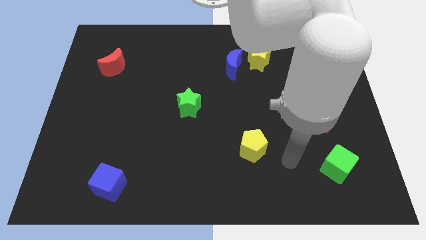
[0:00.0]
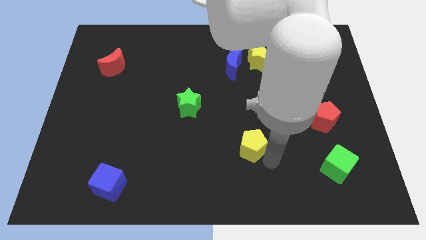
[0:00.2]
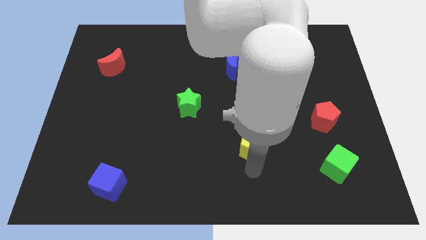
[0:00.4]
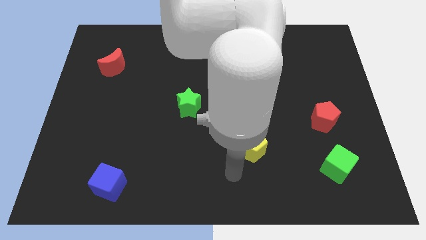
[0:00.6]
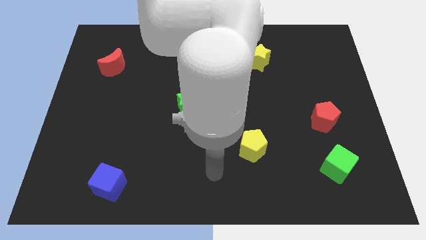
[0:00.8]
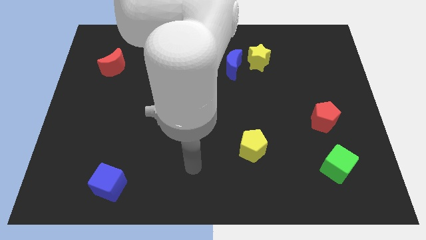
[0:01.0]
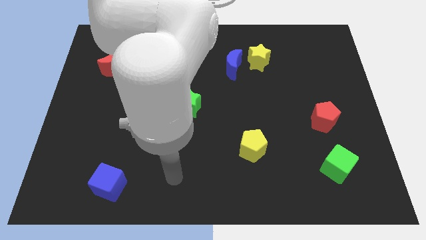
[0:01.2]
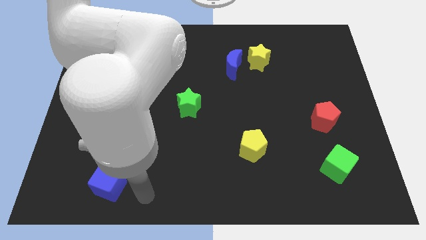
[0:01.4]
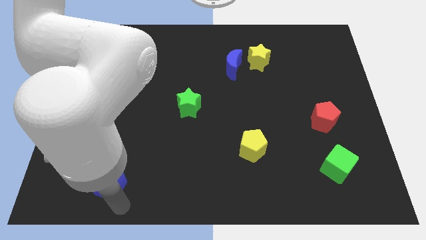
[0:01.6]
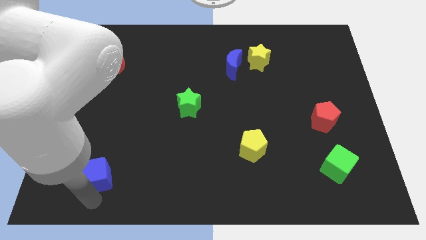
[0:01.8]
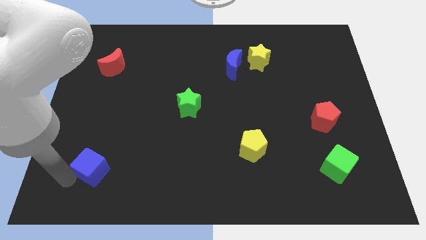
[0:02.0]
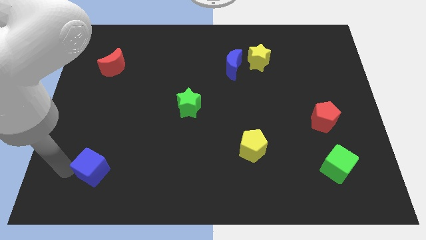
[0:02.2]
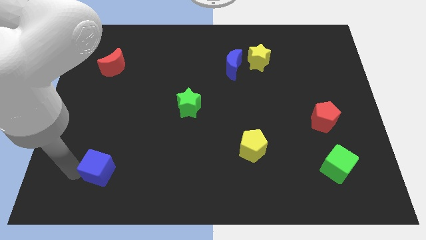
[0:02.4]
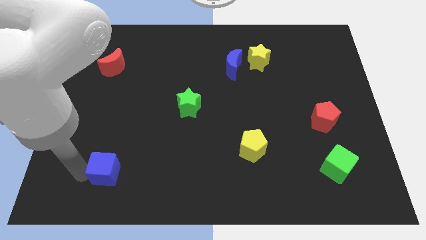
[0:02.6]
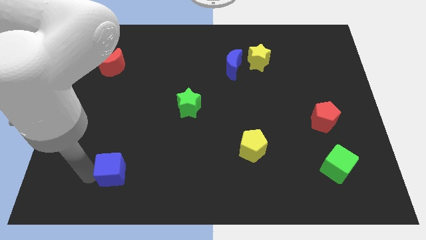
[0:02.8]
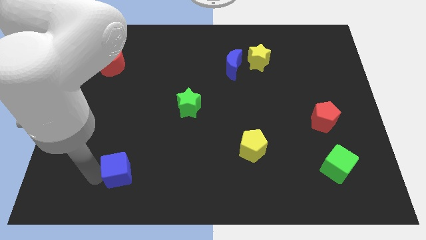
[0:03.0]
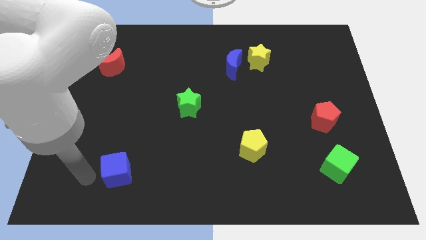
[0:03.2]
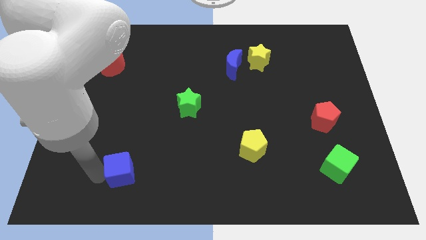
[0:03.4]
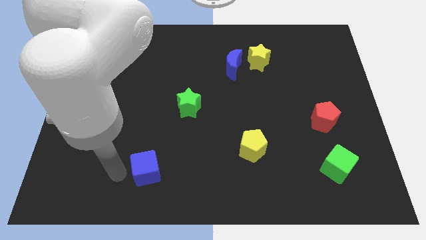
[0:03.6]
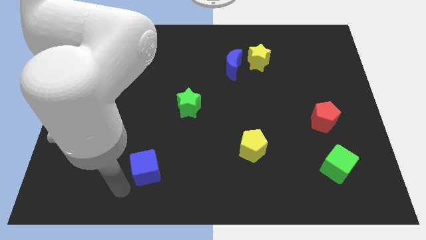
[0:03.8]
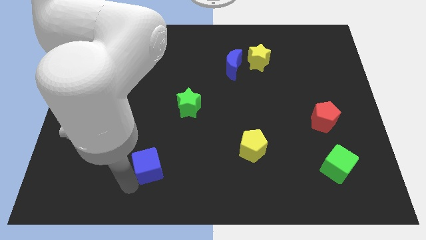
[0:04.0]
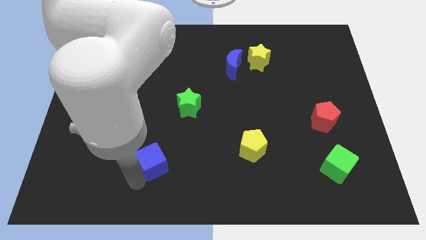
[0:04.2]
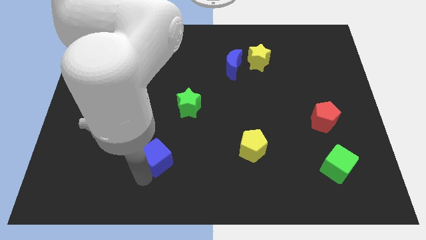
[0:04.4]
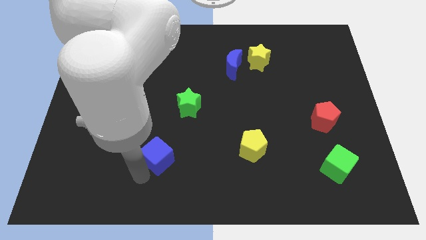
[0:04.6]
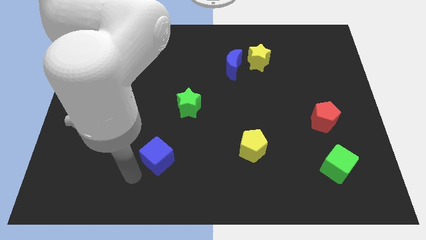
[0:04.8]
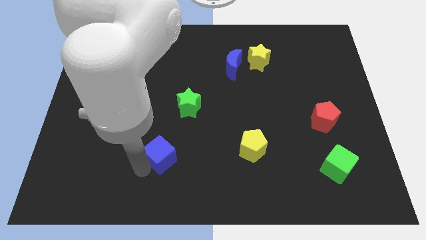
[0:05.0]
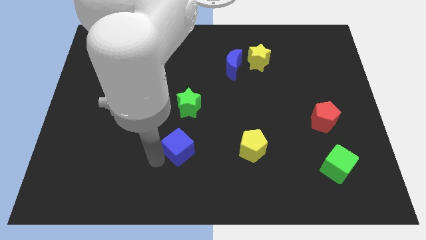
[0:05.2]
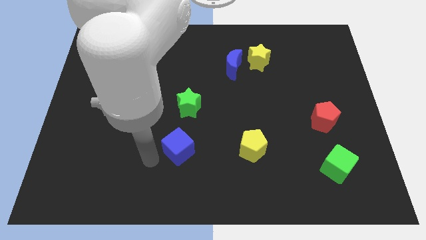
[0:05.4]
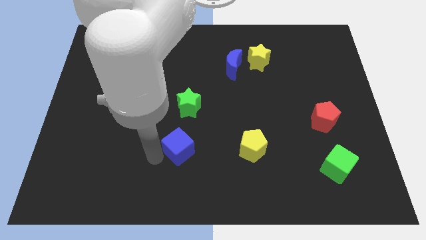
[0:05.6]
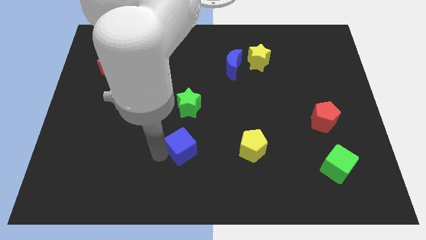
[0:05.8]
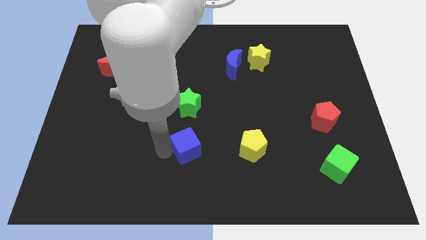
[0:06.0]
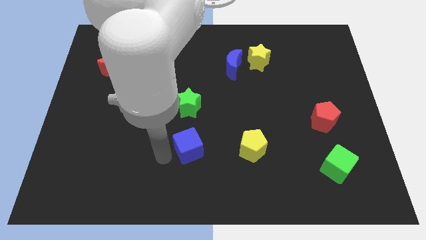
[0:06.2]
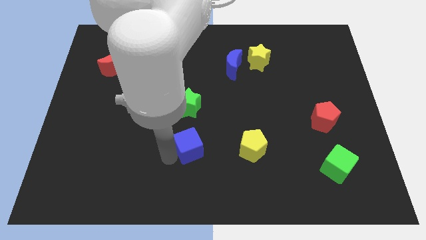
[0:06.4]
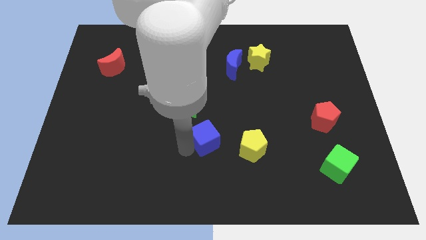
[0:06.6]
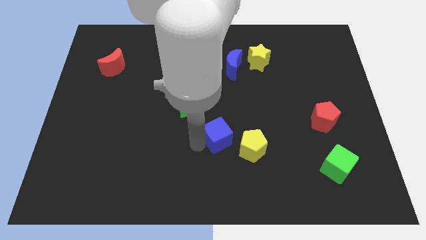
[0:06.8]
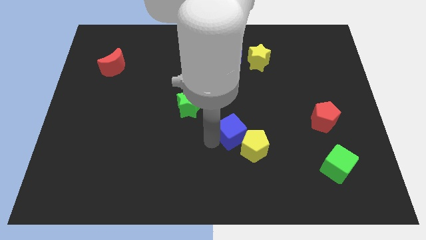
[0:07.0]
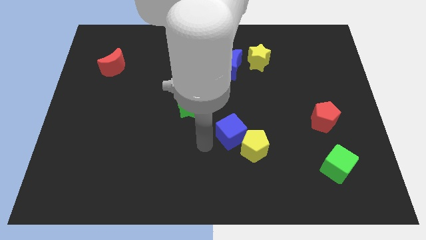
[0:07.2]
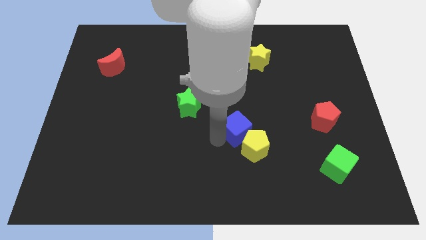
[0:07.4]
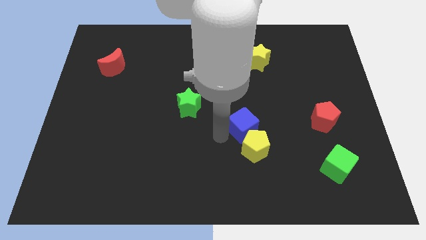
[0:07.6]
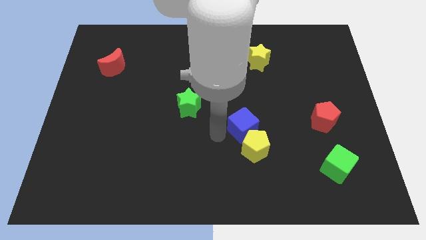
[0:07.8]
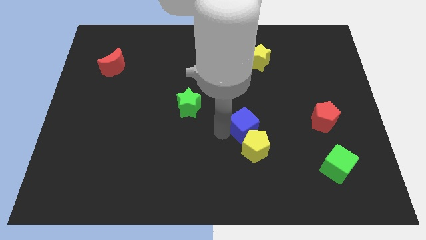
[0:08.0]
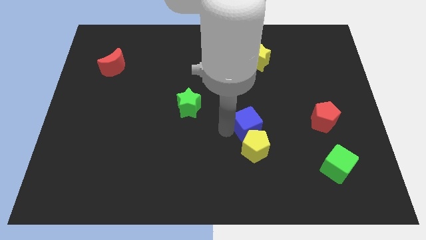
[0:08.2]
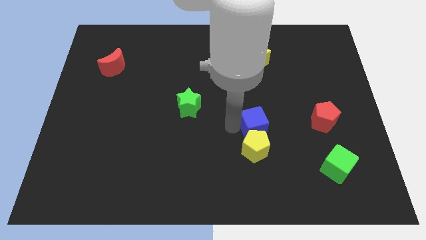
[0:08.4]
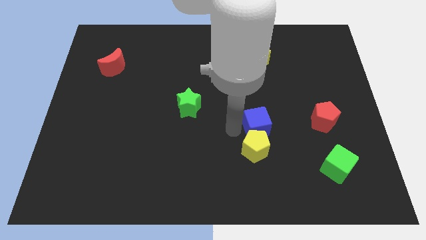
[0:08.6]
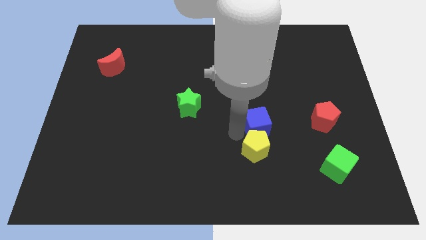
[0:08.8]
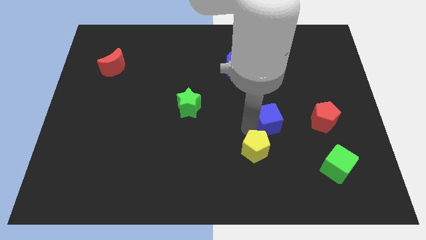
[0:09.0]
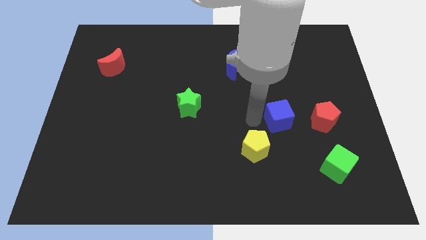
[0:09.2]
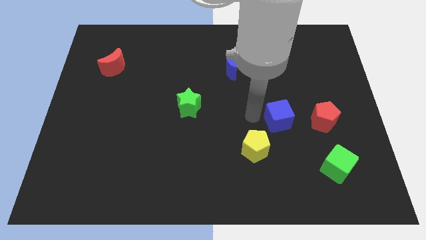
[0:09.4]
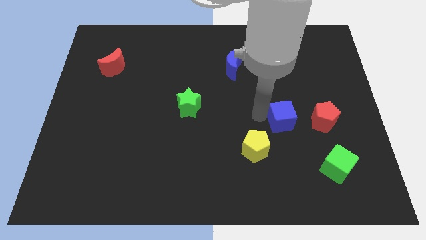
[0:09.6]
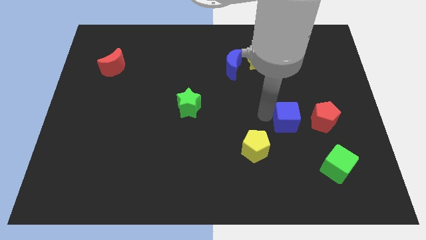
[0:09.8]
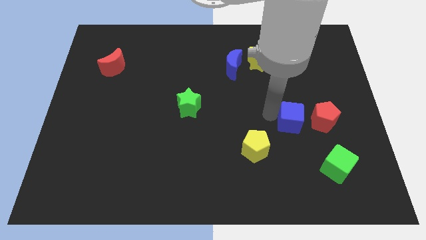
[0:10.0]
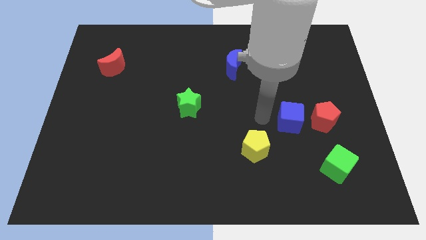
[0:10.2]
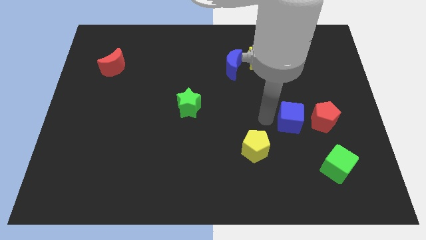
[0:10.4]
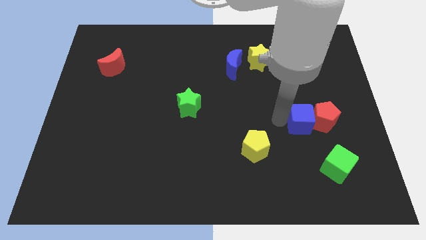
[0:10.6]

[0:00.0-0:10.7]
slide the blue cube towards the red pentagon

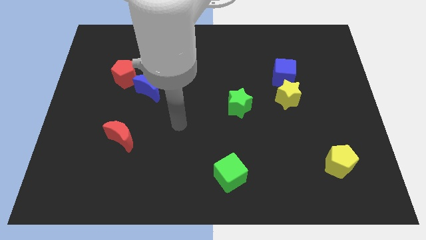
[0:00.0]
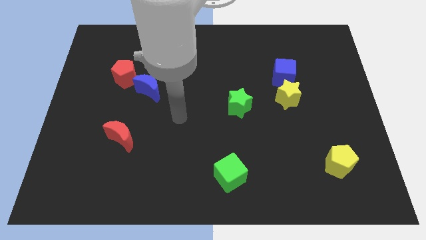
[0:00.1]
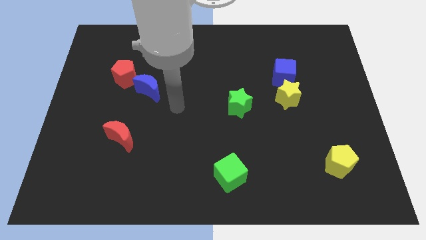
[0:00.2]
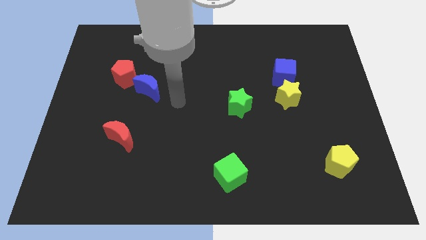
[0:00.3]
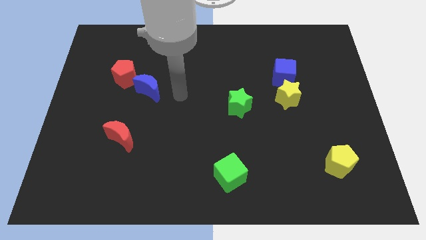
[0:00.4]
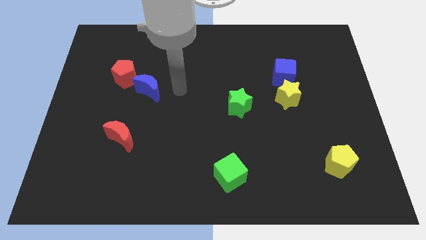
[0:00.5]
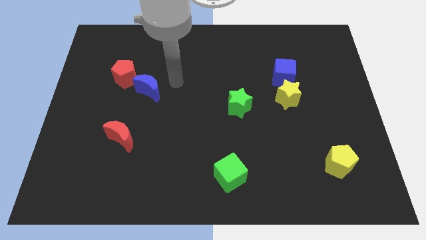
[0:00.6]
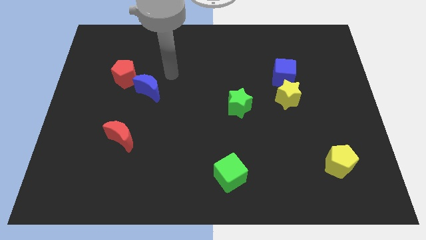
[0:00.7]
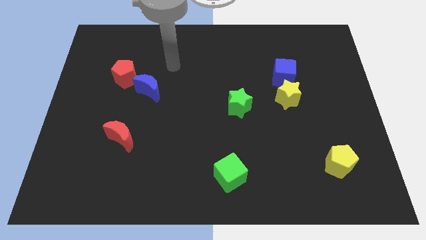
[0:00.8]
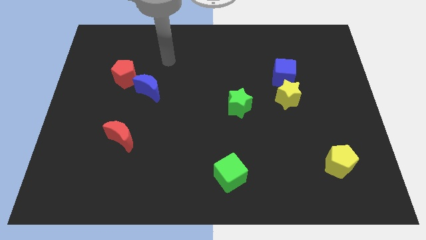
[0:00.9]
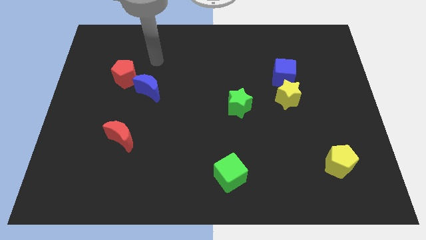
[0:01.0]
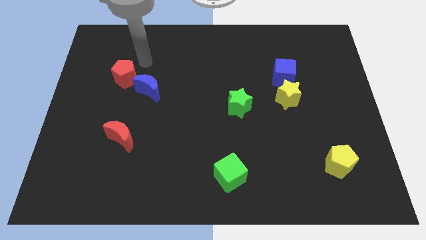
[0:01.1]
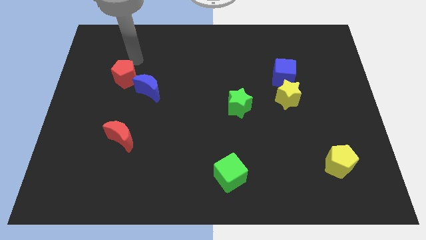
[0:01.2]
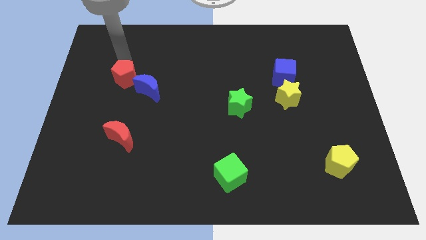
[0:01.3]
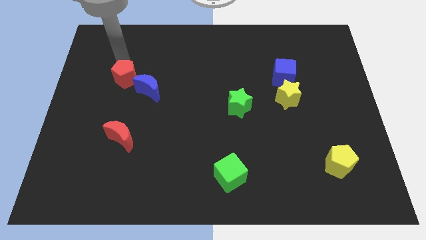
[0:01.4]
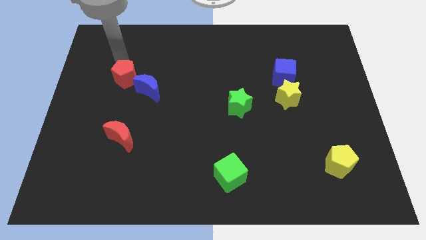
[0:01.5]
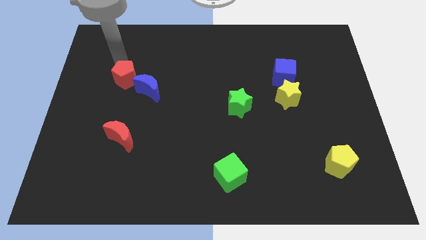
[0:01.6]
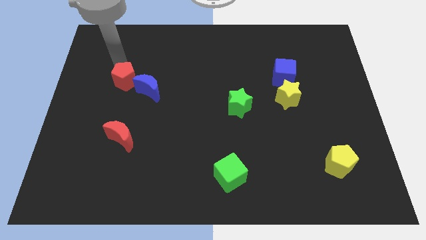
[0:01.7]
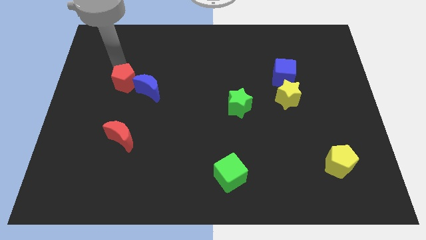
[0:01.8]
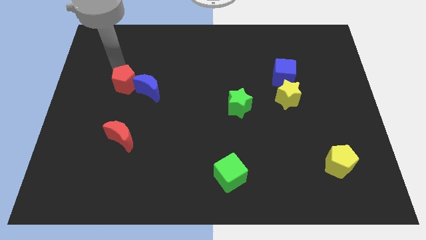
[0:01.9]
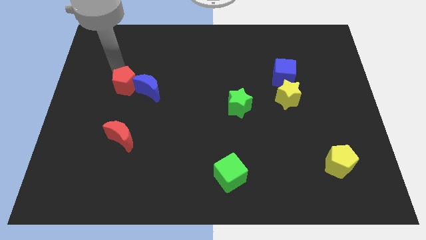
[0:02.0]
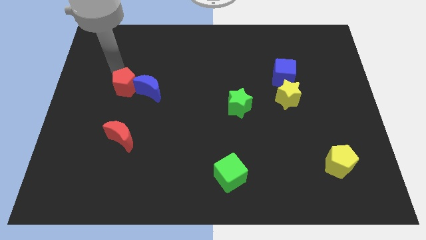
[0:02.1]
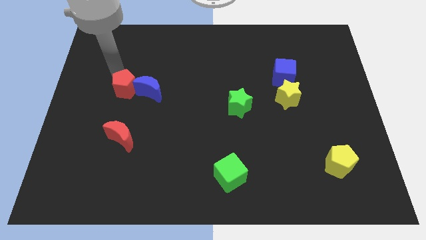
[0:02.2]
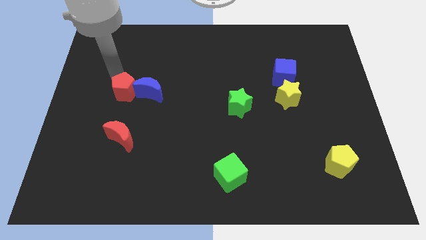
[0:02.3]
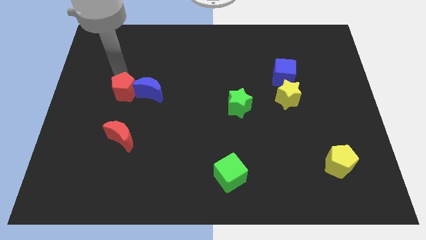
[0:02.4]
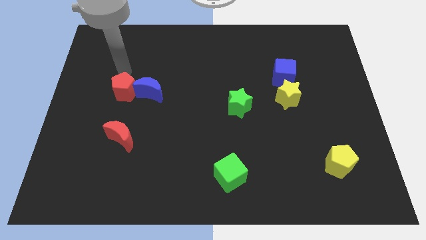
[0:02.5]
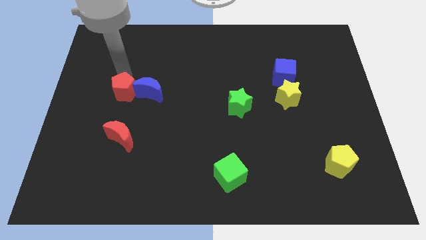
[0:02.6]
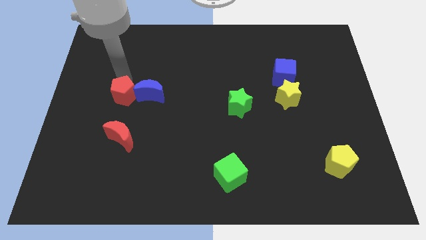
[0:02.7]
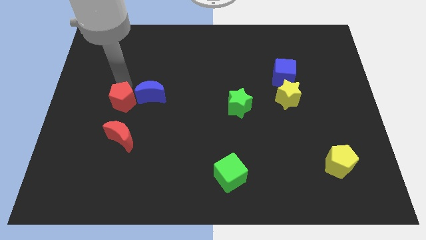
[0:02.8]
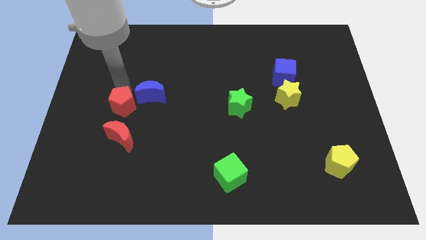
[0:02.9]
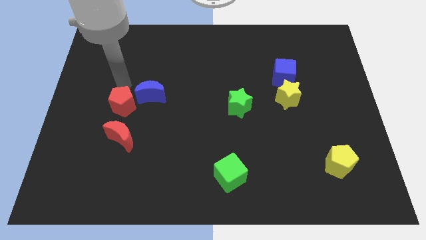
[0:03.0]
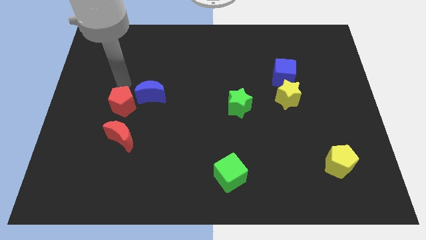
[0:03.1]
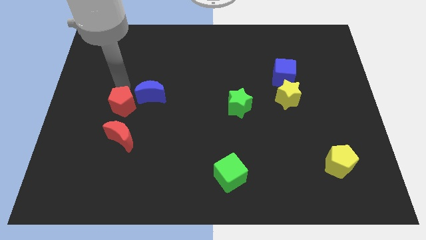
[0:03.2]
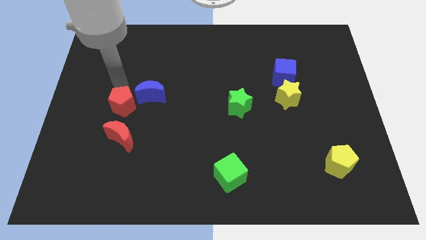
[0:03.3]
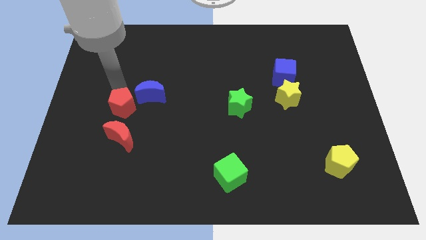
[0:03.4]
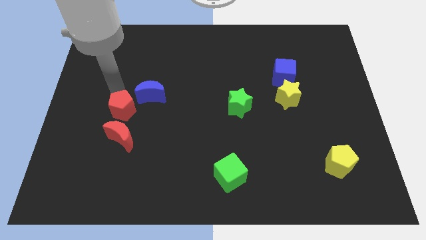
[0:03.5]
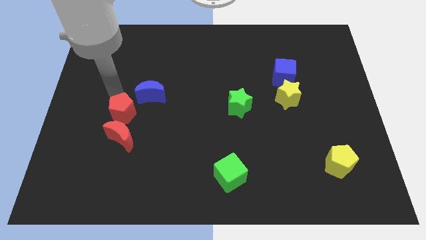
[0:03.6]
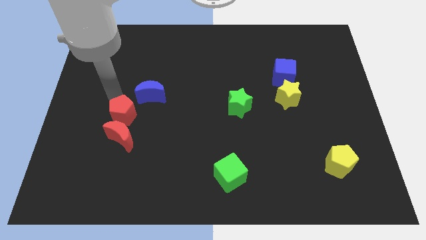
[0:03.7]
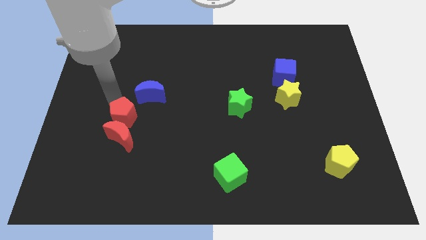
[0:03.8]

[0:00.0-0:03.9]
put the red pentagon towards the red moon
